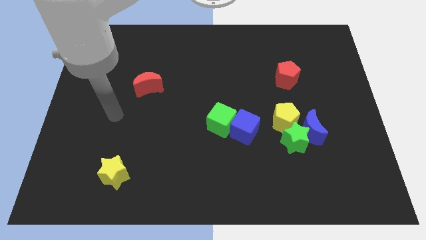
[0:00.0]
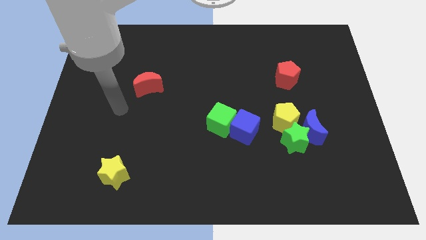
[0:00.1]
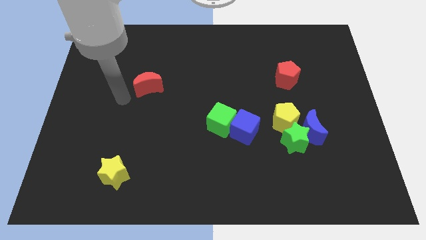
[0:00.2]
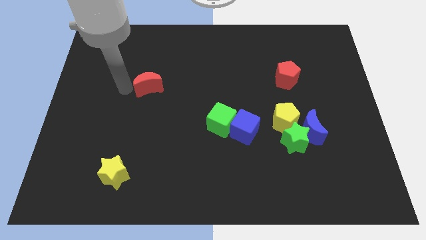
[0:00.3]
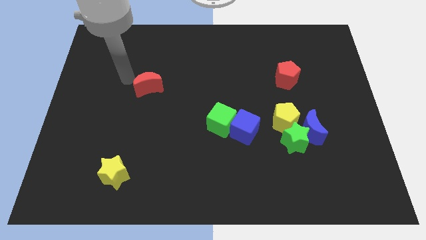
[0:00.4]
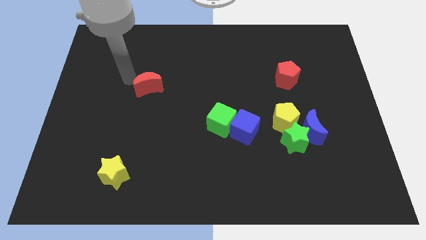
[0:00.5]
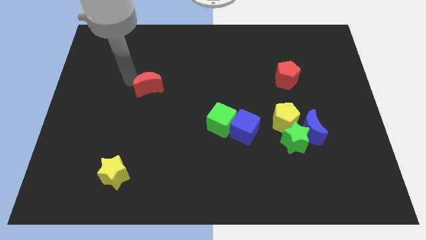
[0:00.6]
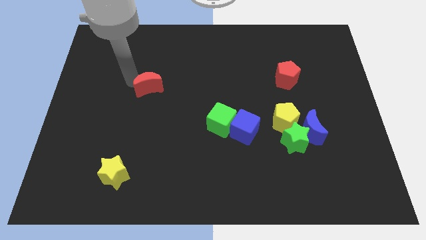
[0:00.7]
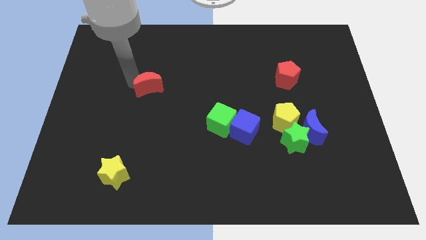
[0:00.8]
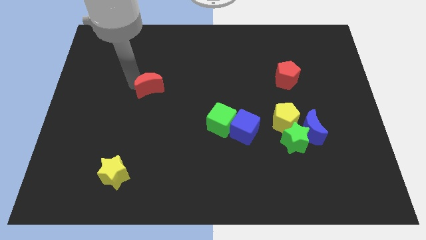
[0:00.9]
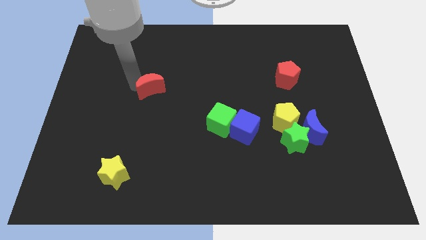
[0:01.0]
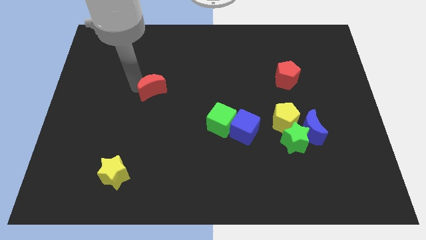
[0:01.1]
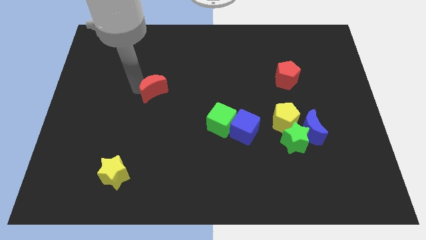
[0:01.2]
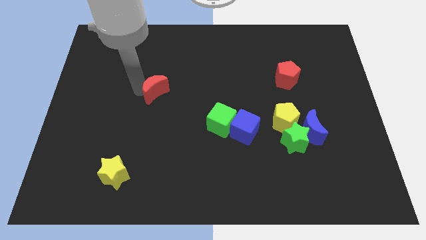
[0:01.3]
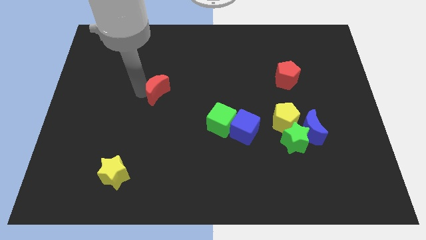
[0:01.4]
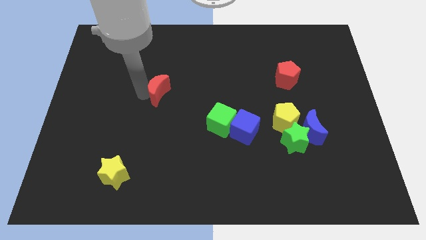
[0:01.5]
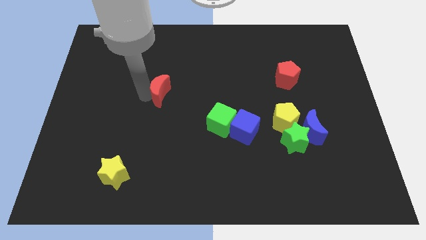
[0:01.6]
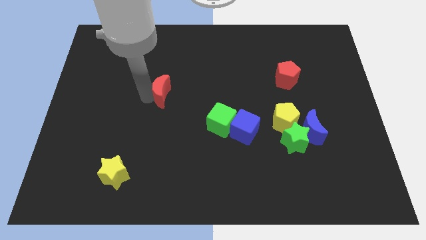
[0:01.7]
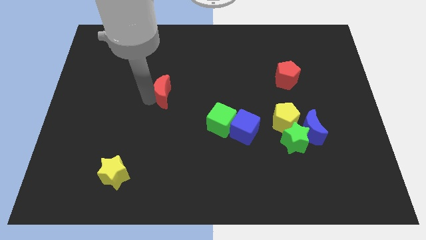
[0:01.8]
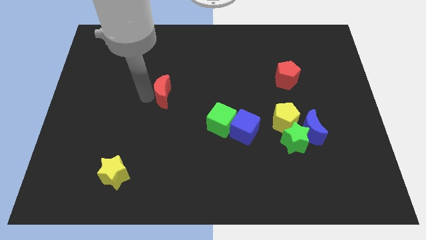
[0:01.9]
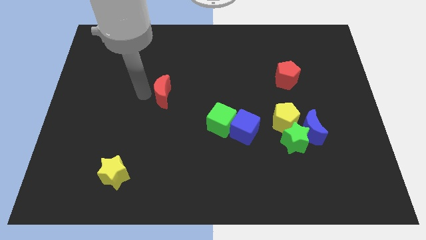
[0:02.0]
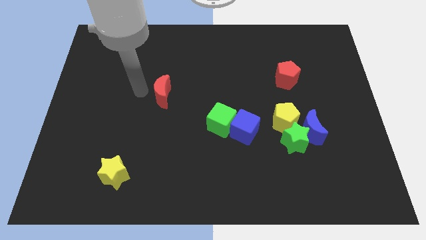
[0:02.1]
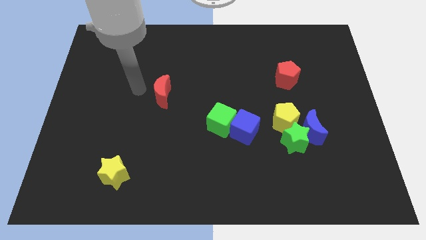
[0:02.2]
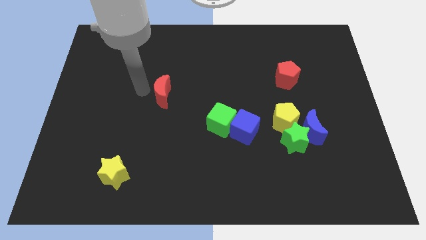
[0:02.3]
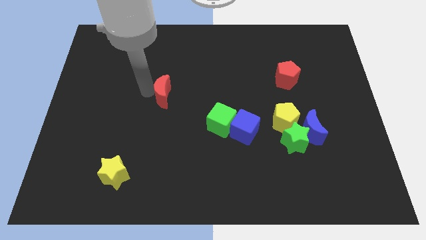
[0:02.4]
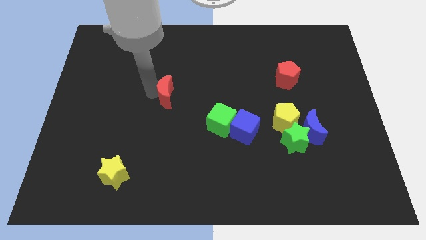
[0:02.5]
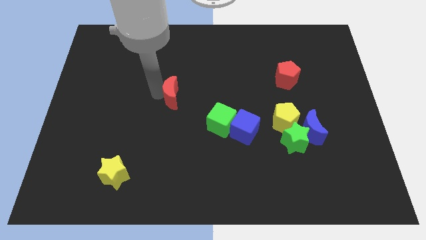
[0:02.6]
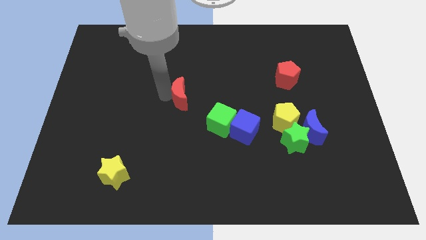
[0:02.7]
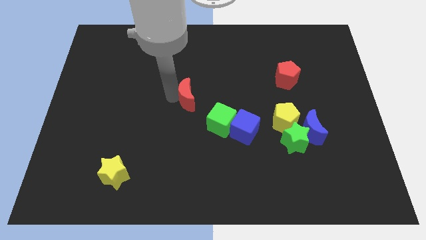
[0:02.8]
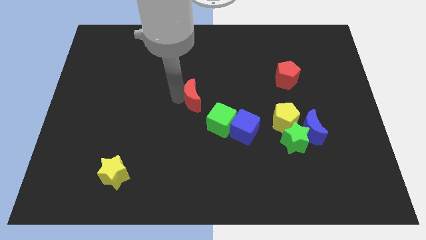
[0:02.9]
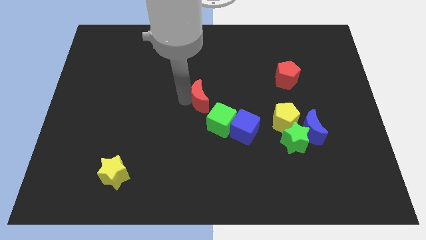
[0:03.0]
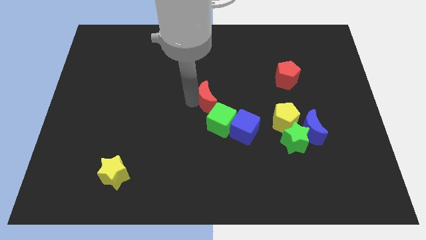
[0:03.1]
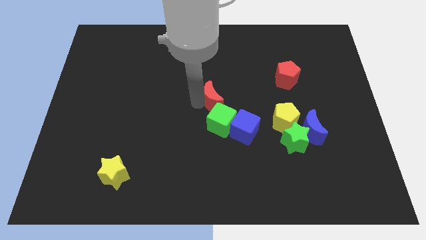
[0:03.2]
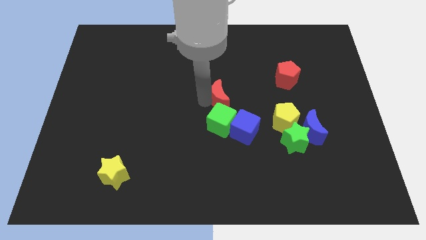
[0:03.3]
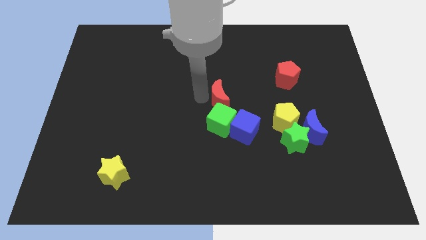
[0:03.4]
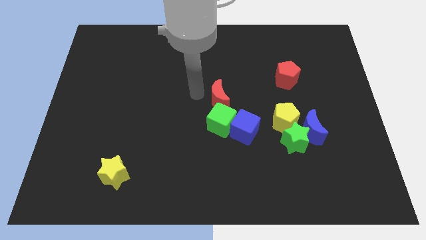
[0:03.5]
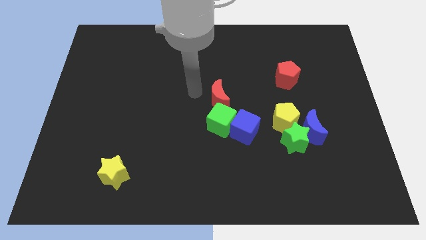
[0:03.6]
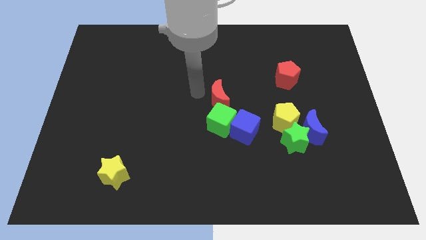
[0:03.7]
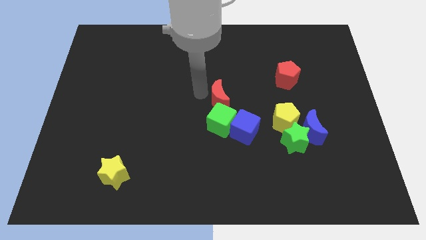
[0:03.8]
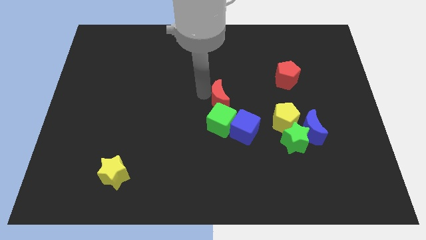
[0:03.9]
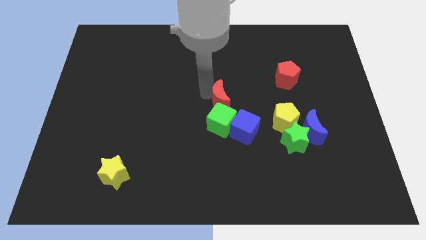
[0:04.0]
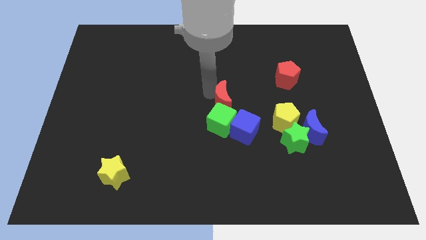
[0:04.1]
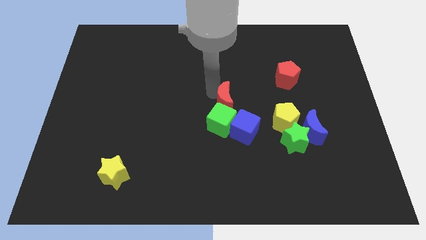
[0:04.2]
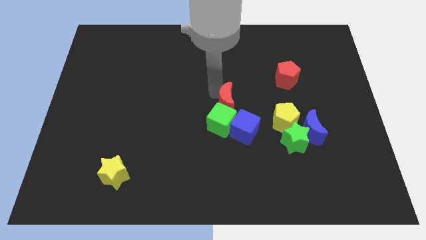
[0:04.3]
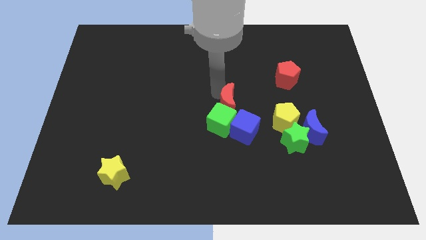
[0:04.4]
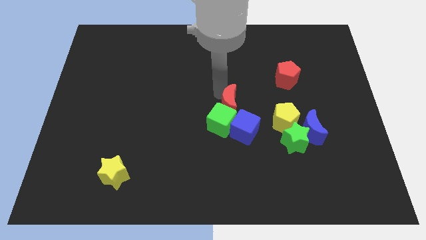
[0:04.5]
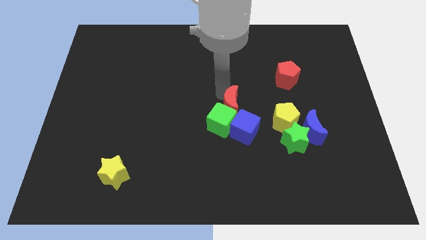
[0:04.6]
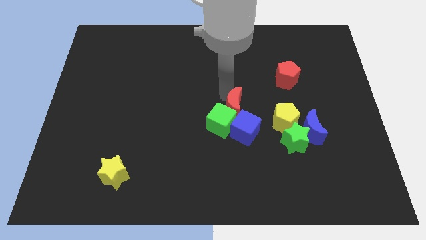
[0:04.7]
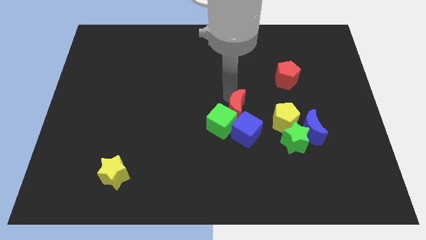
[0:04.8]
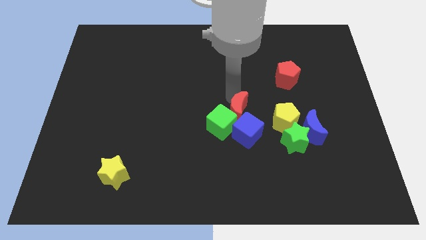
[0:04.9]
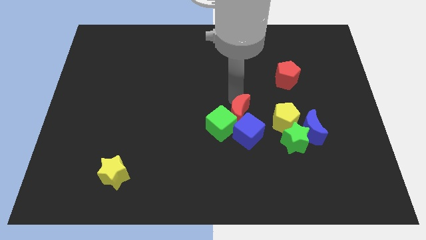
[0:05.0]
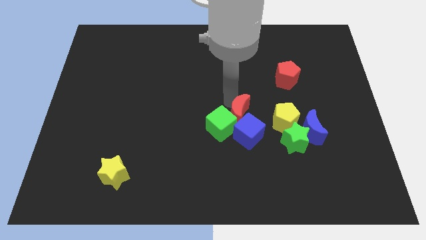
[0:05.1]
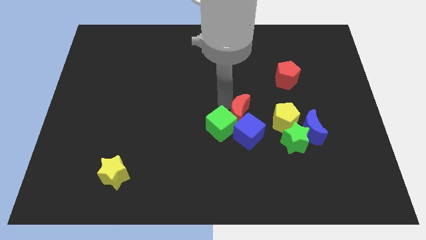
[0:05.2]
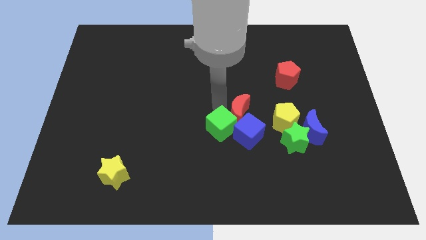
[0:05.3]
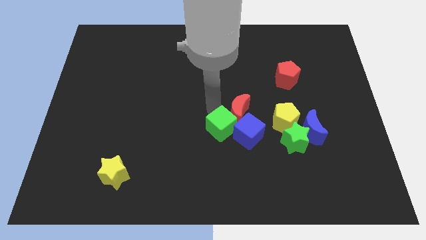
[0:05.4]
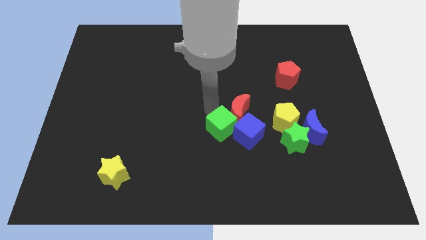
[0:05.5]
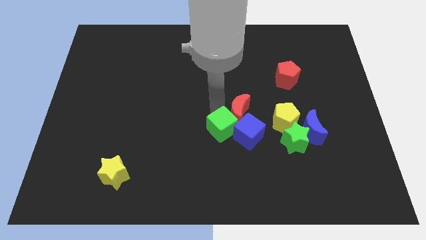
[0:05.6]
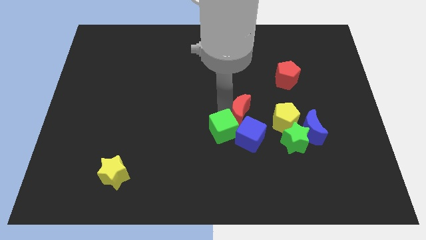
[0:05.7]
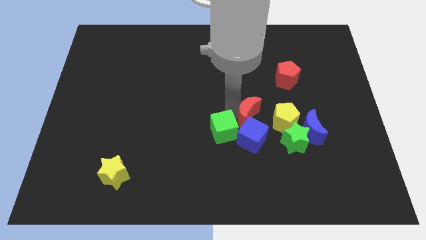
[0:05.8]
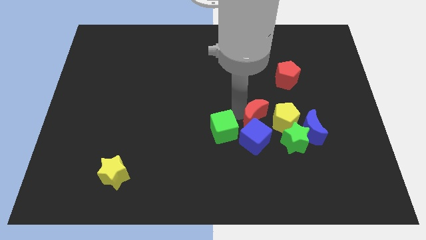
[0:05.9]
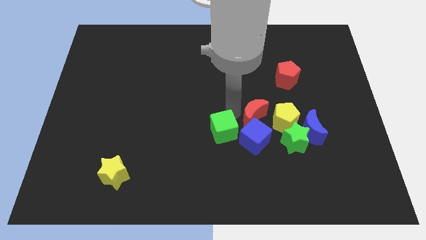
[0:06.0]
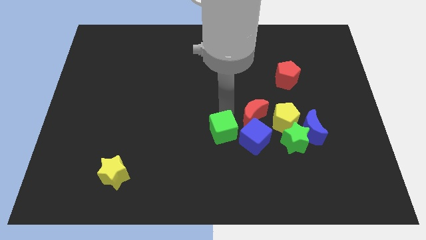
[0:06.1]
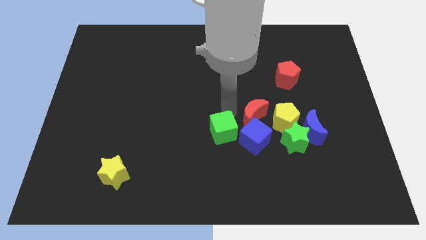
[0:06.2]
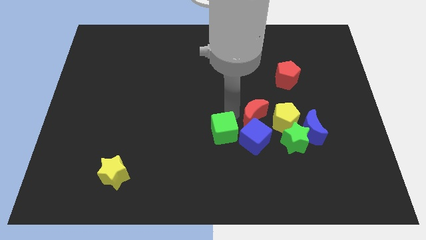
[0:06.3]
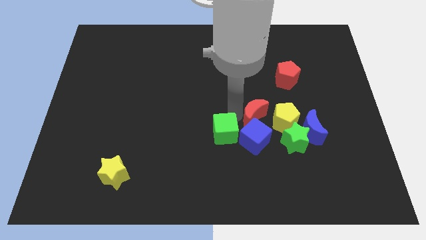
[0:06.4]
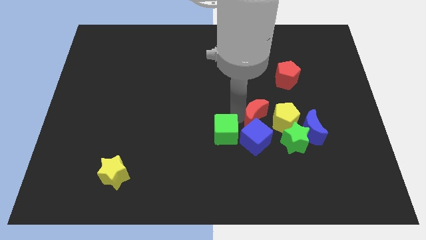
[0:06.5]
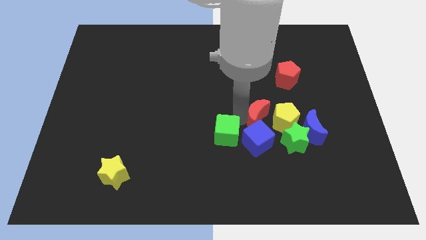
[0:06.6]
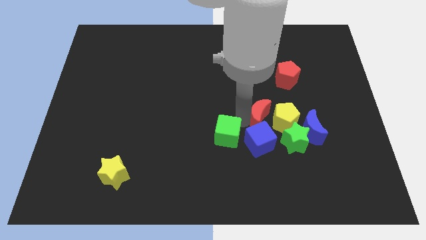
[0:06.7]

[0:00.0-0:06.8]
slide the red moon towards the yellow pentagon

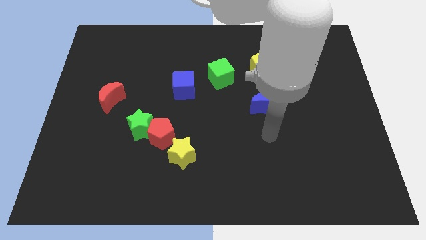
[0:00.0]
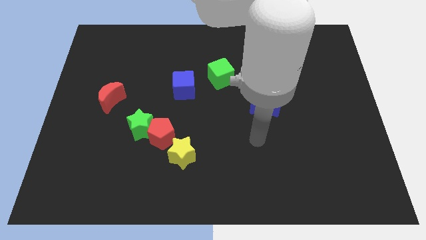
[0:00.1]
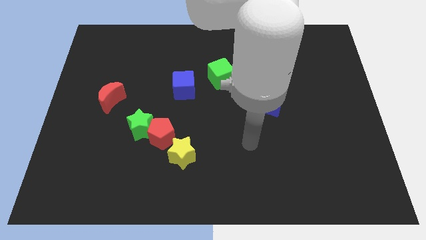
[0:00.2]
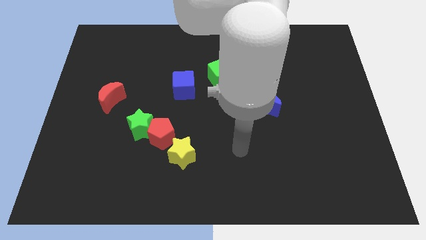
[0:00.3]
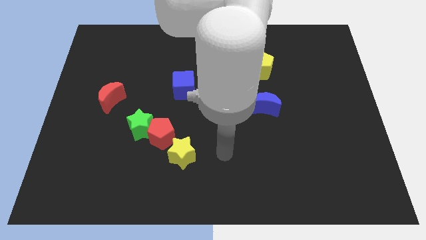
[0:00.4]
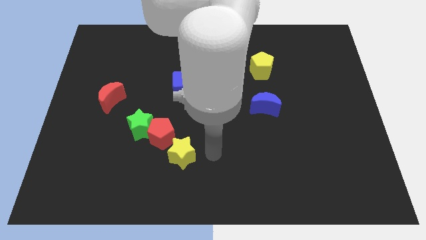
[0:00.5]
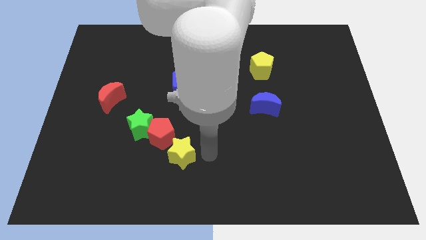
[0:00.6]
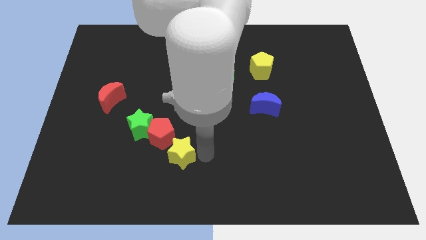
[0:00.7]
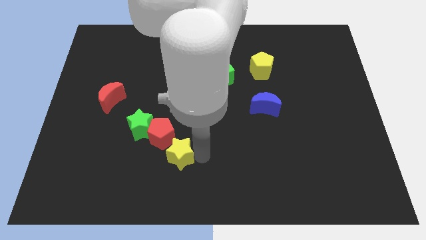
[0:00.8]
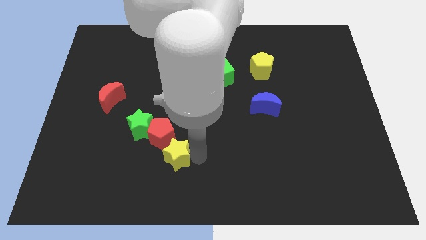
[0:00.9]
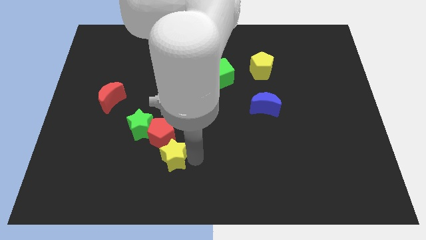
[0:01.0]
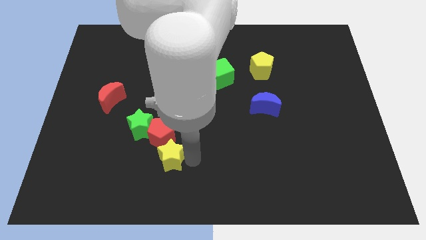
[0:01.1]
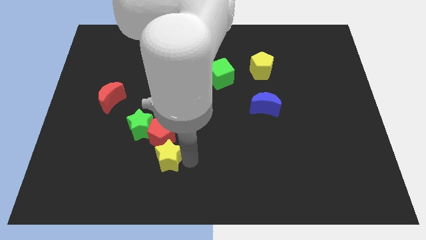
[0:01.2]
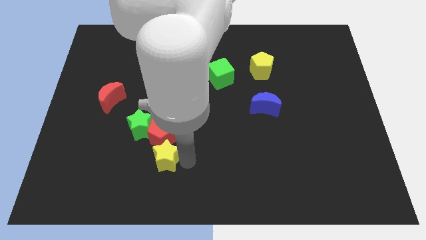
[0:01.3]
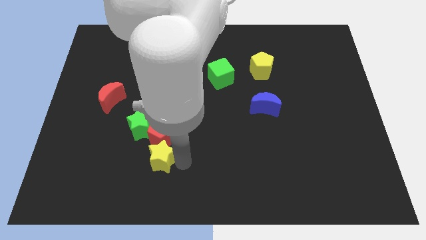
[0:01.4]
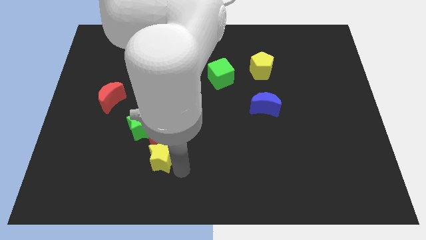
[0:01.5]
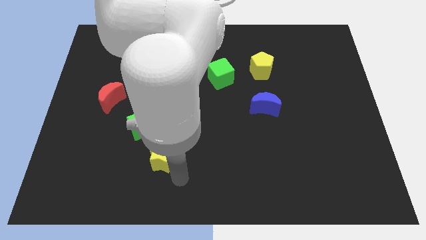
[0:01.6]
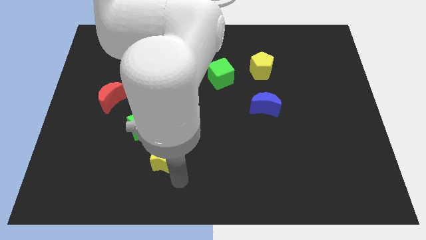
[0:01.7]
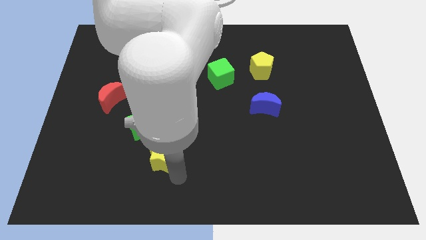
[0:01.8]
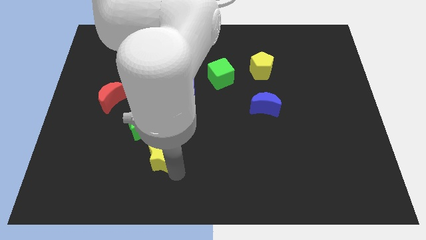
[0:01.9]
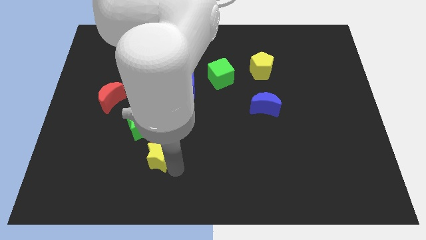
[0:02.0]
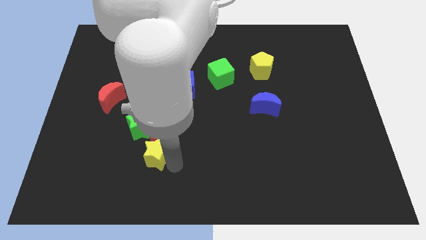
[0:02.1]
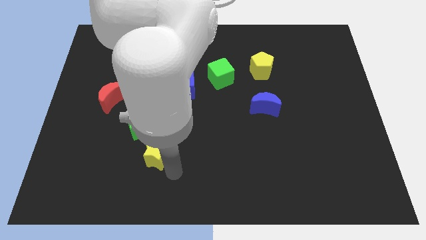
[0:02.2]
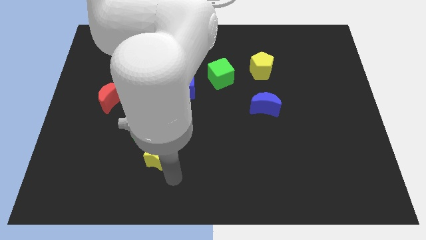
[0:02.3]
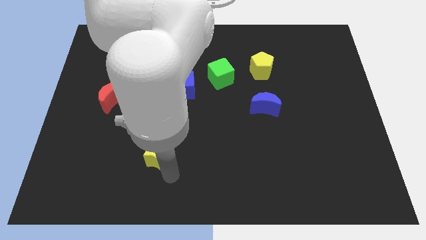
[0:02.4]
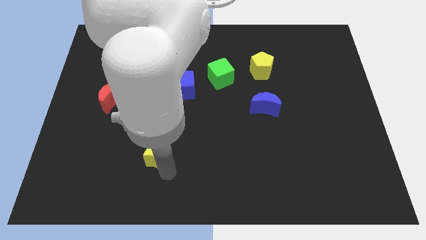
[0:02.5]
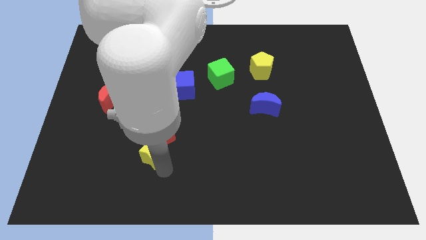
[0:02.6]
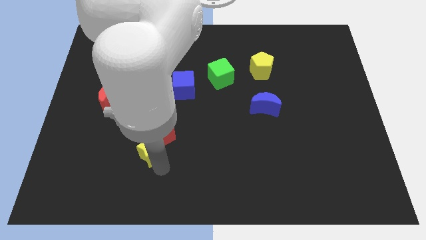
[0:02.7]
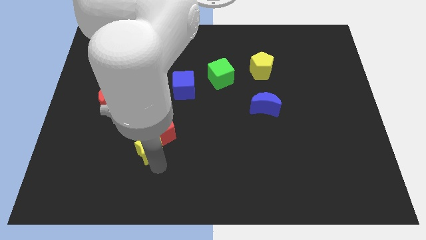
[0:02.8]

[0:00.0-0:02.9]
push the yellow star towards the green star
